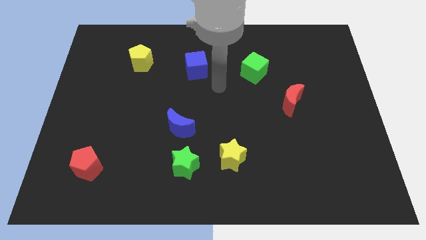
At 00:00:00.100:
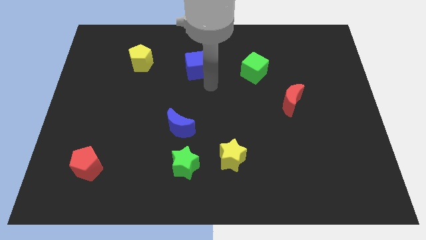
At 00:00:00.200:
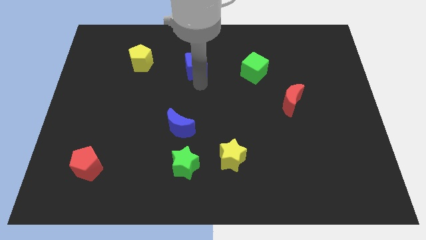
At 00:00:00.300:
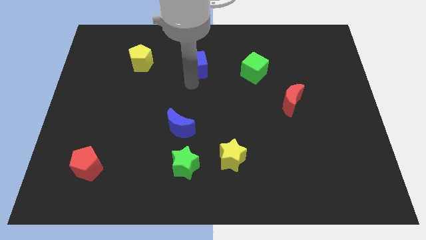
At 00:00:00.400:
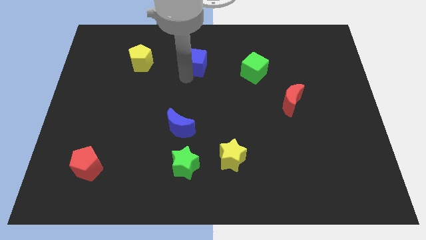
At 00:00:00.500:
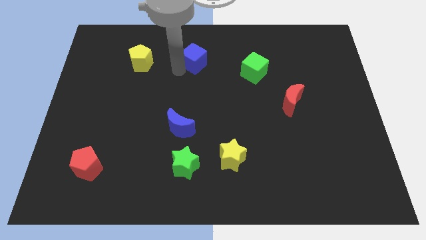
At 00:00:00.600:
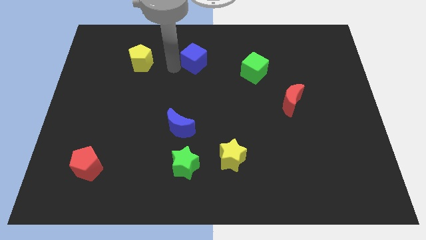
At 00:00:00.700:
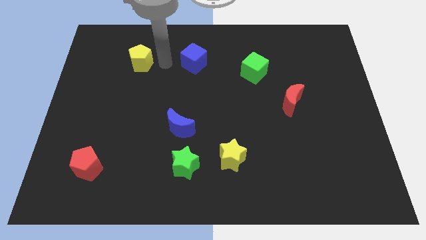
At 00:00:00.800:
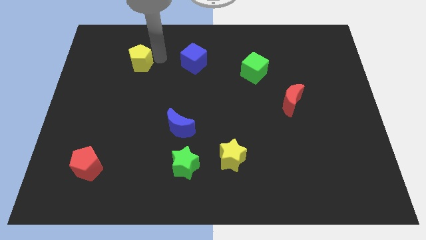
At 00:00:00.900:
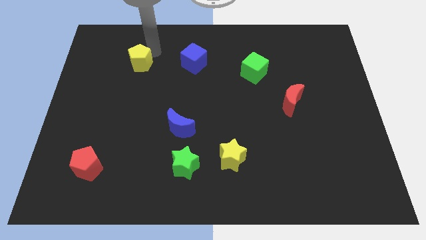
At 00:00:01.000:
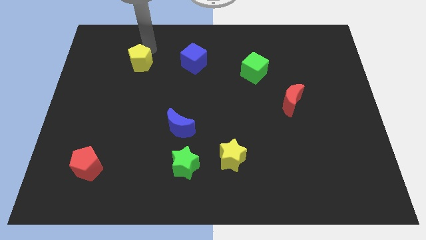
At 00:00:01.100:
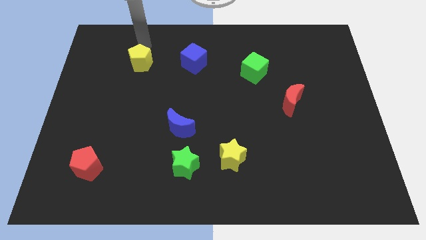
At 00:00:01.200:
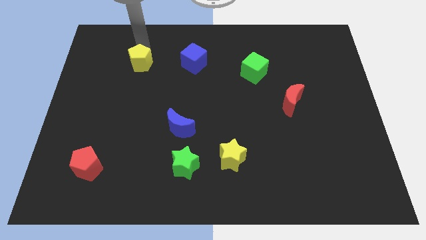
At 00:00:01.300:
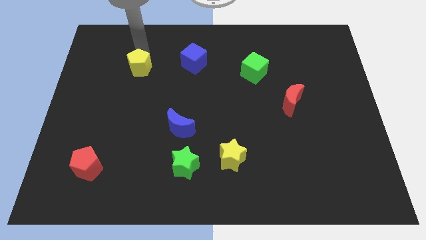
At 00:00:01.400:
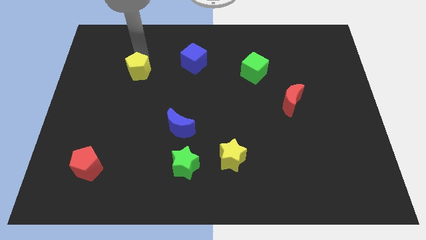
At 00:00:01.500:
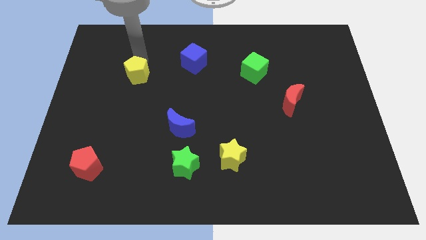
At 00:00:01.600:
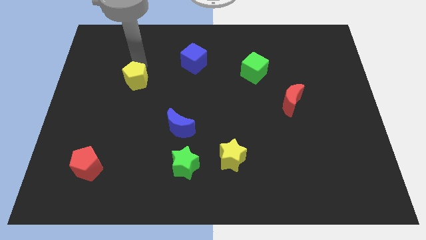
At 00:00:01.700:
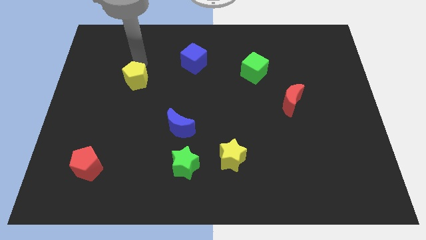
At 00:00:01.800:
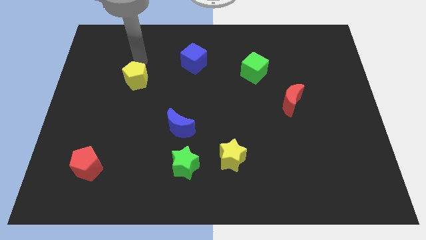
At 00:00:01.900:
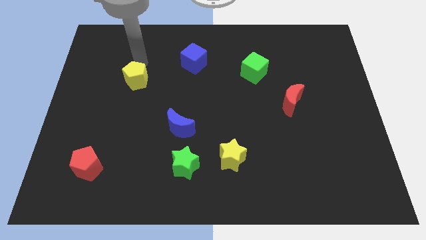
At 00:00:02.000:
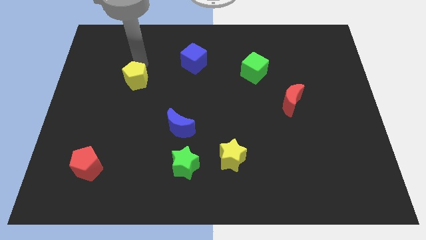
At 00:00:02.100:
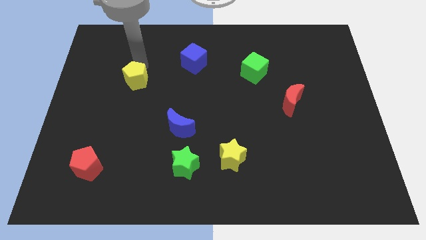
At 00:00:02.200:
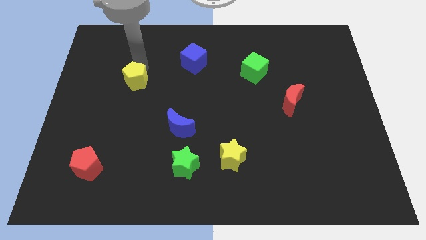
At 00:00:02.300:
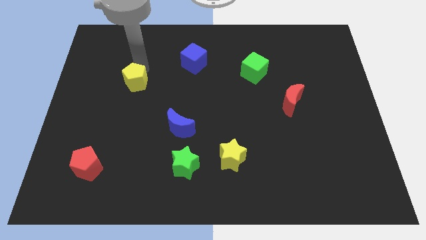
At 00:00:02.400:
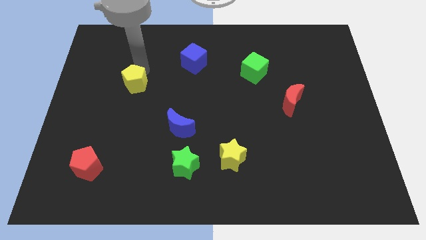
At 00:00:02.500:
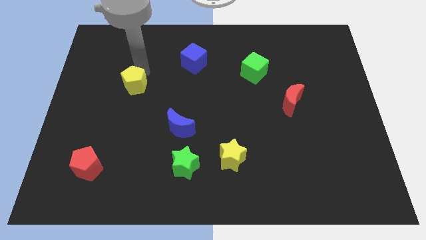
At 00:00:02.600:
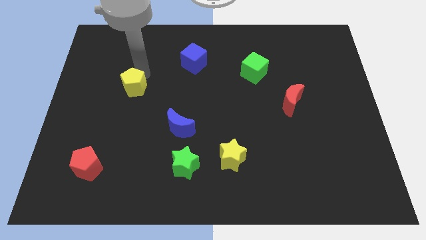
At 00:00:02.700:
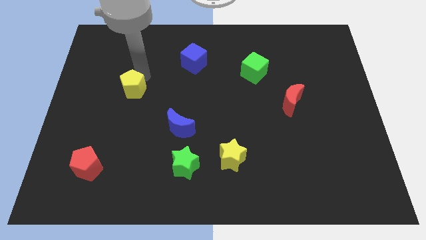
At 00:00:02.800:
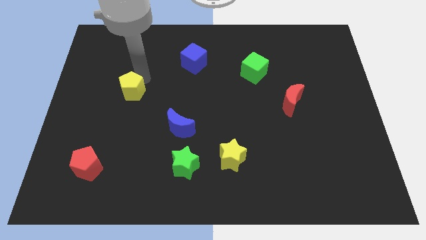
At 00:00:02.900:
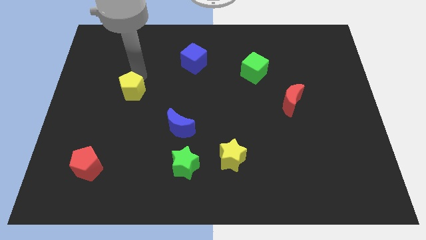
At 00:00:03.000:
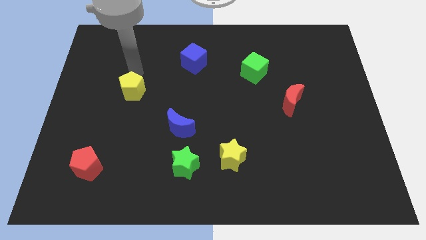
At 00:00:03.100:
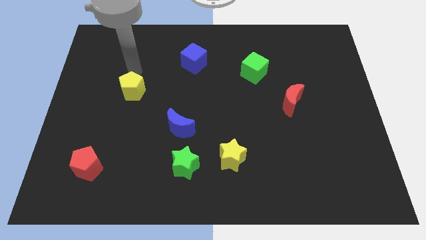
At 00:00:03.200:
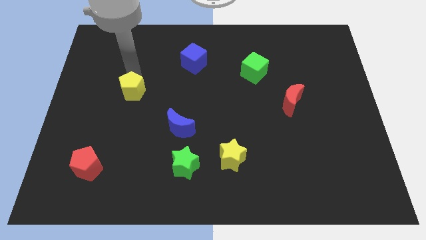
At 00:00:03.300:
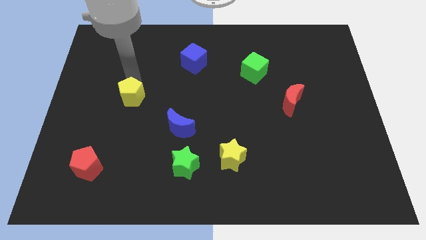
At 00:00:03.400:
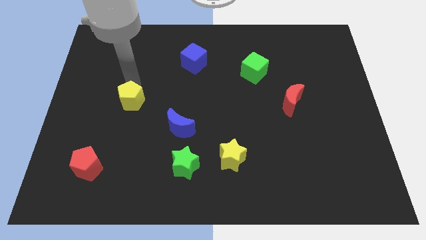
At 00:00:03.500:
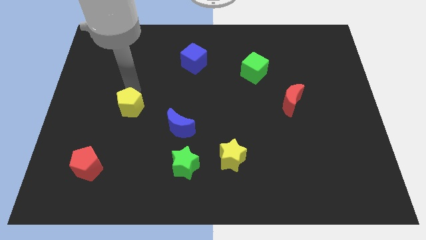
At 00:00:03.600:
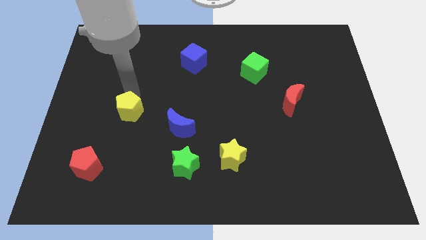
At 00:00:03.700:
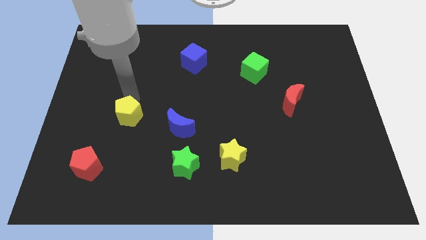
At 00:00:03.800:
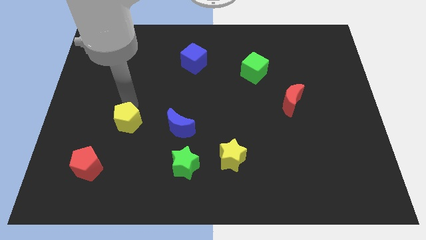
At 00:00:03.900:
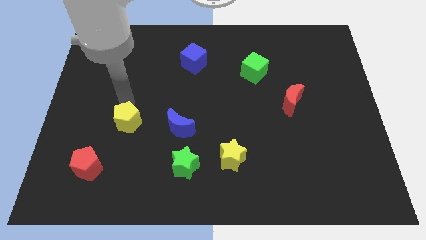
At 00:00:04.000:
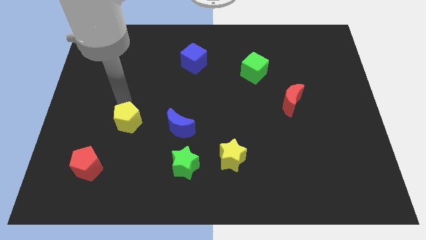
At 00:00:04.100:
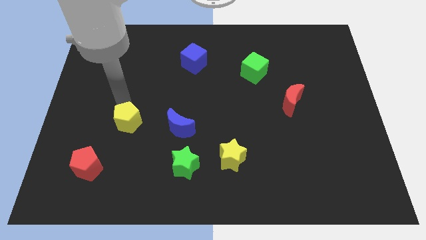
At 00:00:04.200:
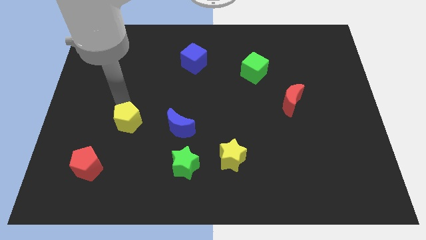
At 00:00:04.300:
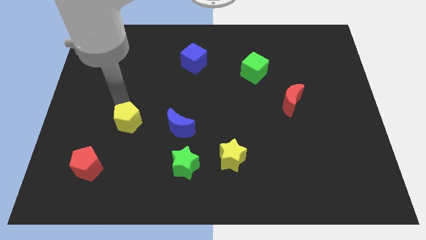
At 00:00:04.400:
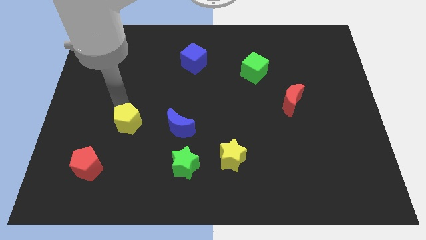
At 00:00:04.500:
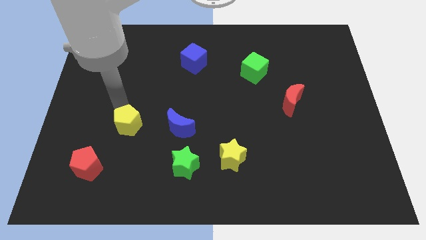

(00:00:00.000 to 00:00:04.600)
push the yellow pentagon downwards

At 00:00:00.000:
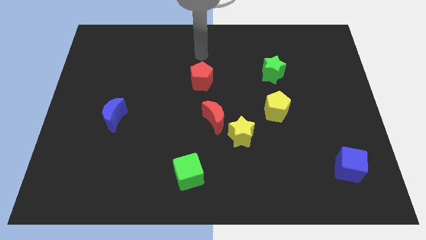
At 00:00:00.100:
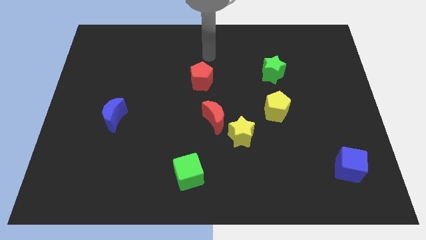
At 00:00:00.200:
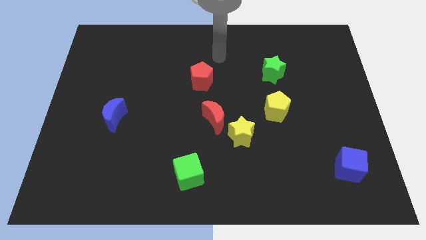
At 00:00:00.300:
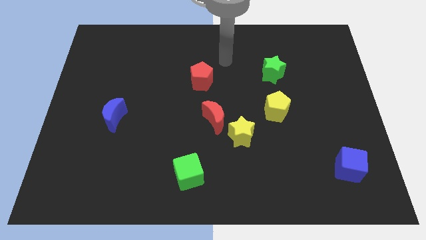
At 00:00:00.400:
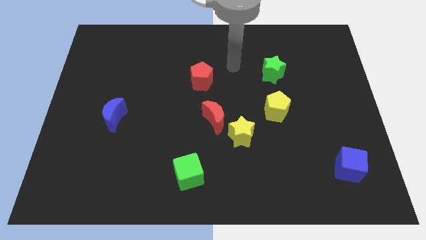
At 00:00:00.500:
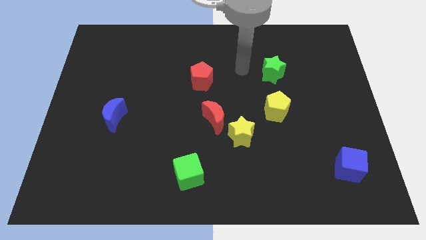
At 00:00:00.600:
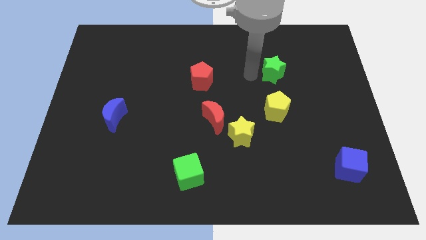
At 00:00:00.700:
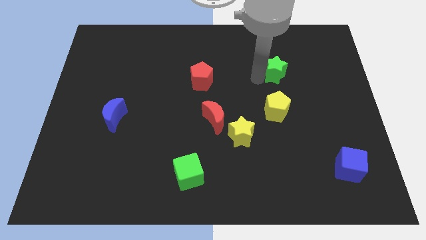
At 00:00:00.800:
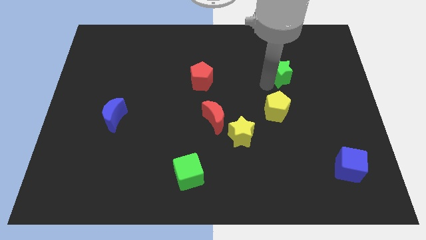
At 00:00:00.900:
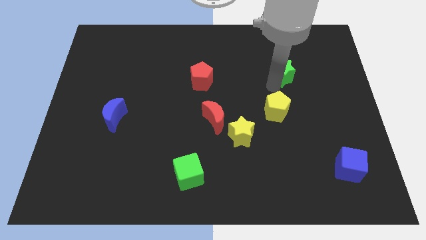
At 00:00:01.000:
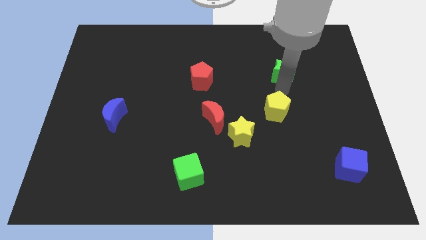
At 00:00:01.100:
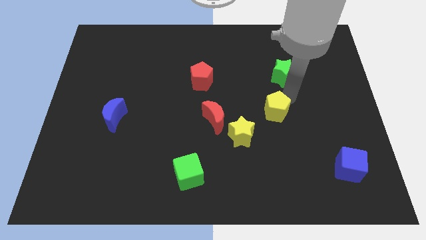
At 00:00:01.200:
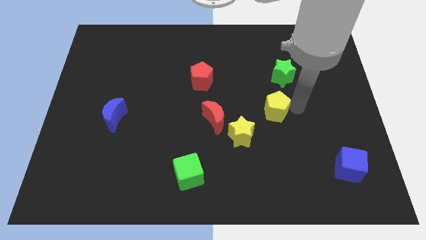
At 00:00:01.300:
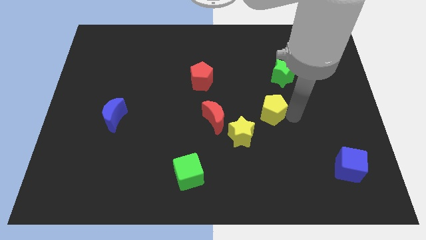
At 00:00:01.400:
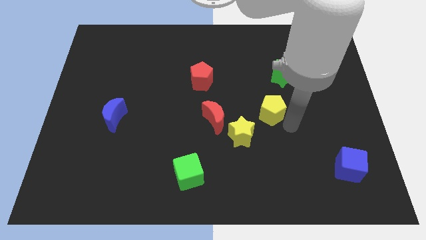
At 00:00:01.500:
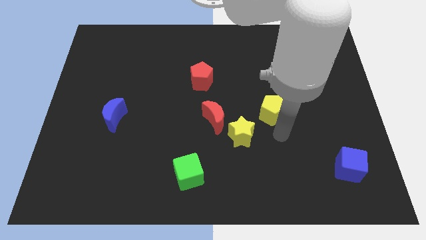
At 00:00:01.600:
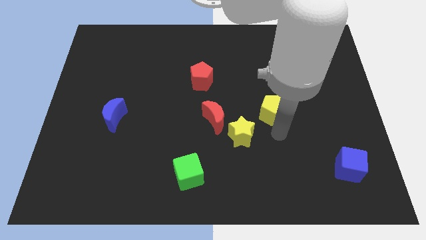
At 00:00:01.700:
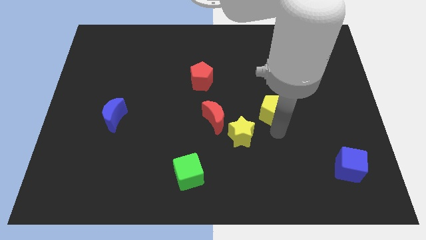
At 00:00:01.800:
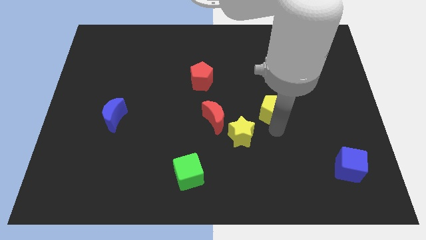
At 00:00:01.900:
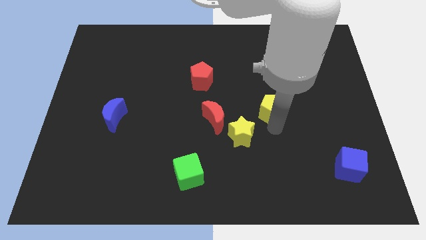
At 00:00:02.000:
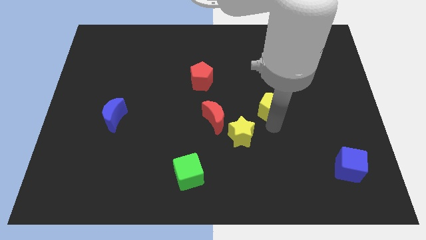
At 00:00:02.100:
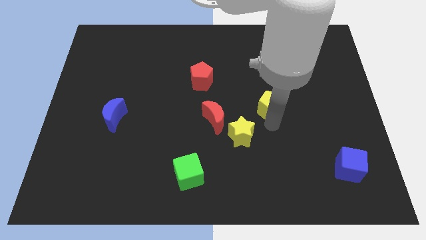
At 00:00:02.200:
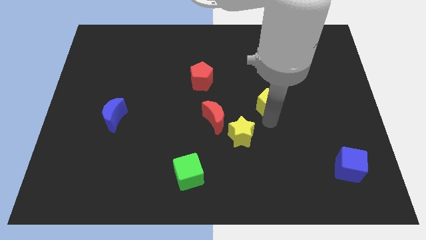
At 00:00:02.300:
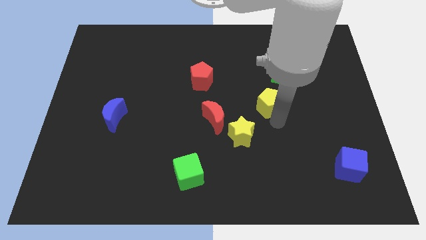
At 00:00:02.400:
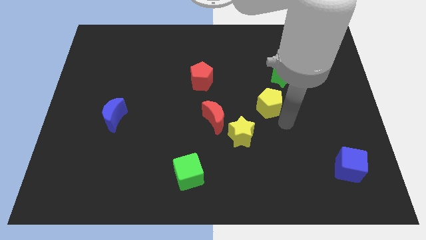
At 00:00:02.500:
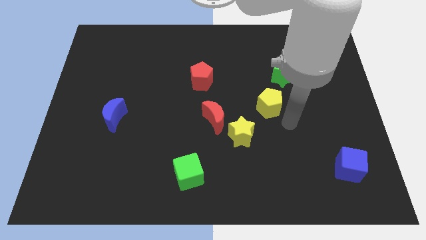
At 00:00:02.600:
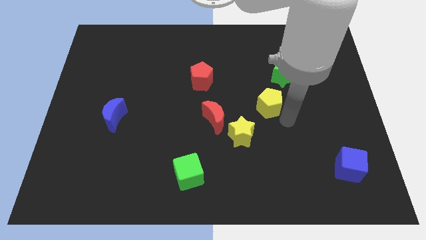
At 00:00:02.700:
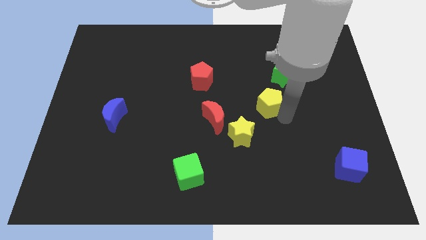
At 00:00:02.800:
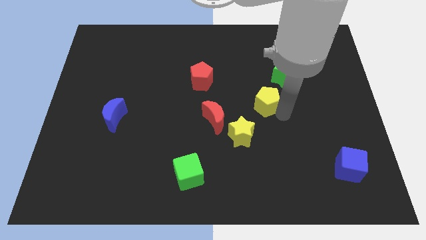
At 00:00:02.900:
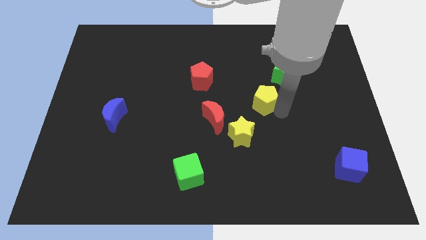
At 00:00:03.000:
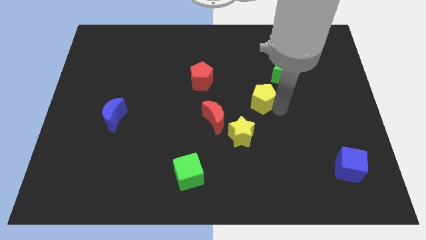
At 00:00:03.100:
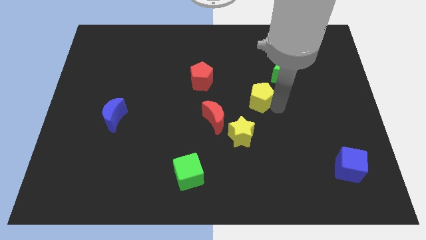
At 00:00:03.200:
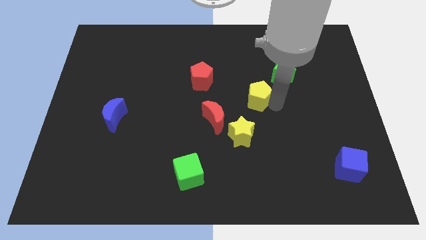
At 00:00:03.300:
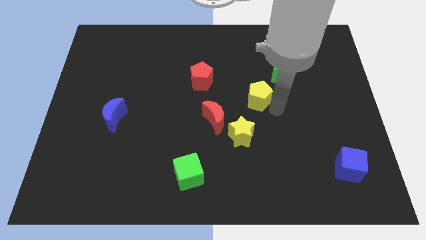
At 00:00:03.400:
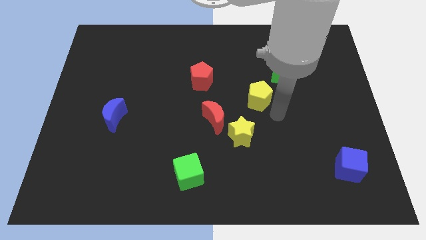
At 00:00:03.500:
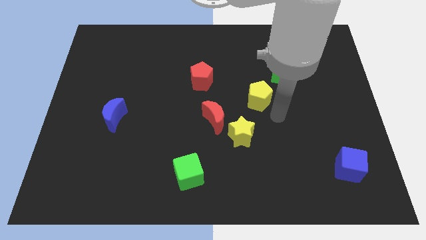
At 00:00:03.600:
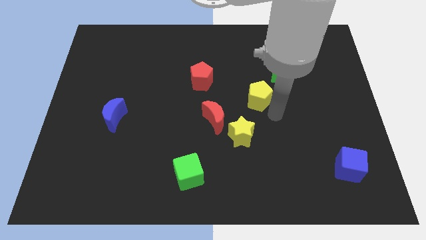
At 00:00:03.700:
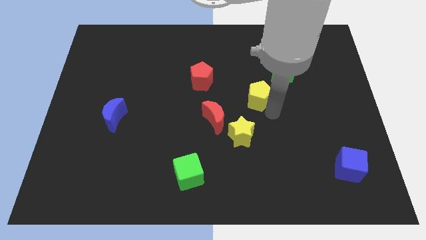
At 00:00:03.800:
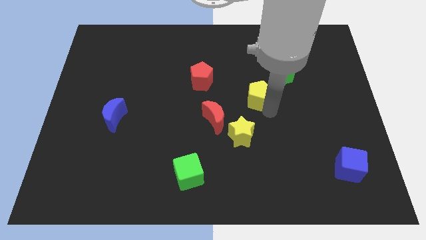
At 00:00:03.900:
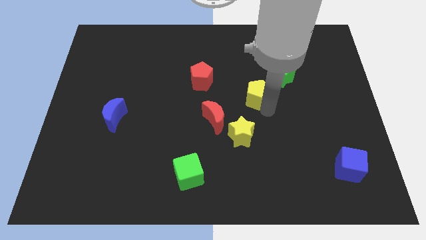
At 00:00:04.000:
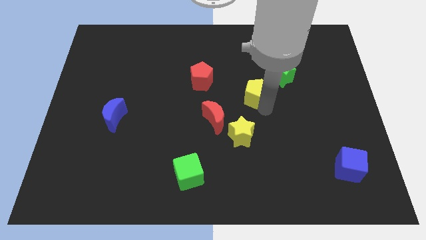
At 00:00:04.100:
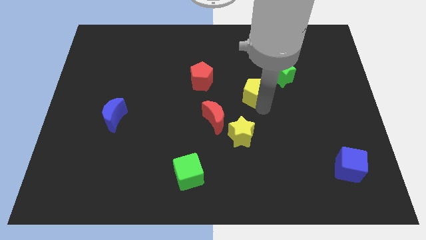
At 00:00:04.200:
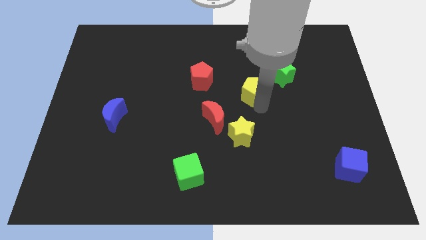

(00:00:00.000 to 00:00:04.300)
slightly slide the yellow pentagon up and then to the left
